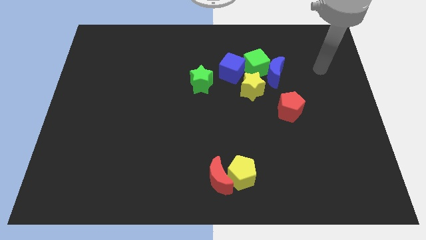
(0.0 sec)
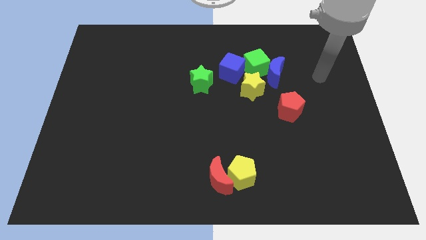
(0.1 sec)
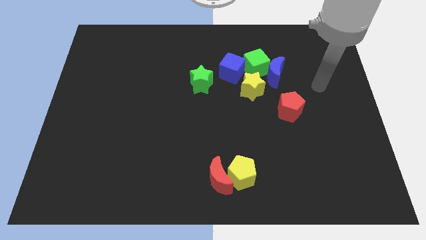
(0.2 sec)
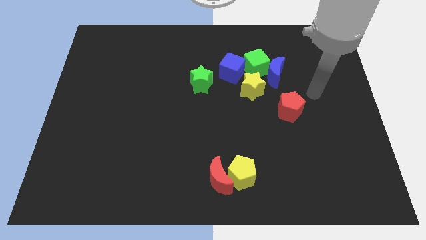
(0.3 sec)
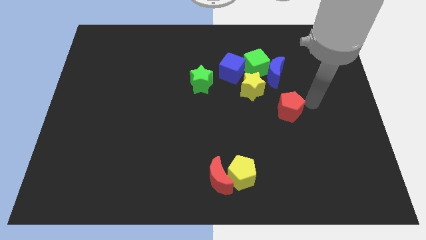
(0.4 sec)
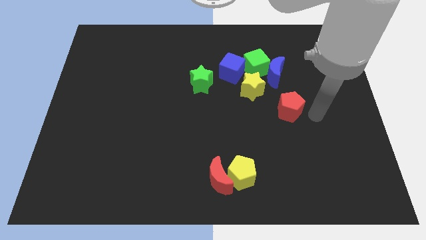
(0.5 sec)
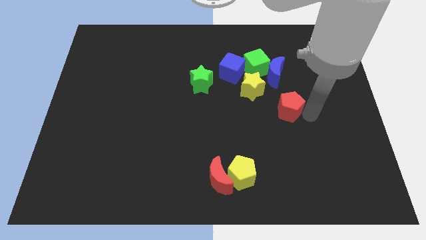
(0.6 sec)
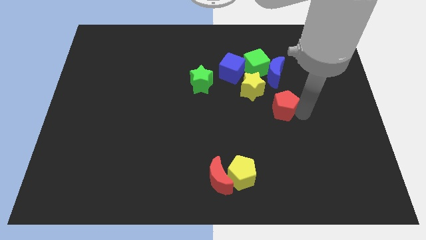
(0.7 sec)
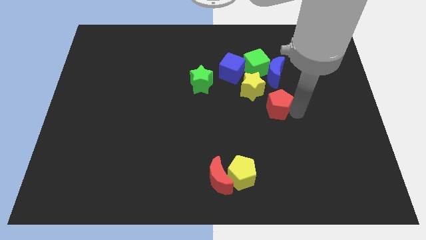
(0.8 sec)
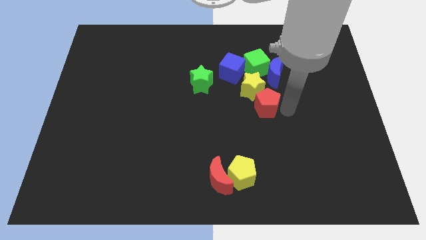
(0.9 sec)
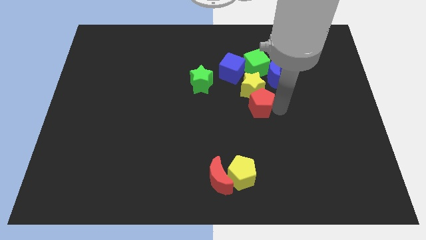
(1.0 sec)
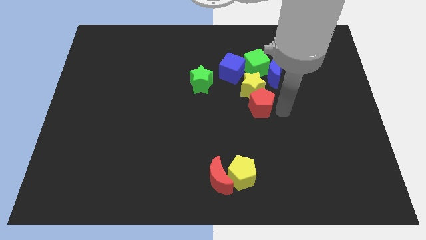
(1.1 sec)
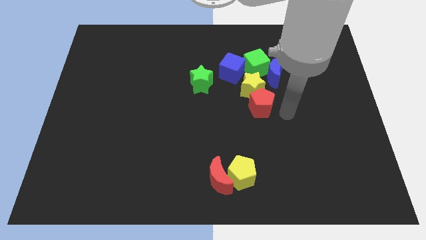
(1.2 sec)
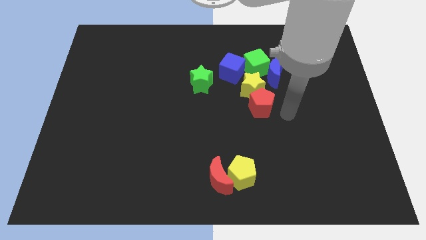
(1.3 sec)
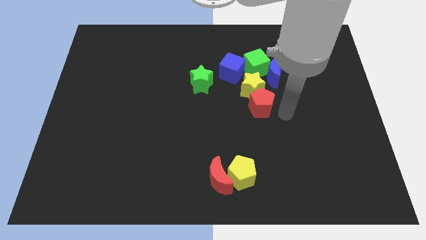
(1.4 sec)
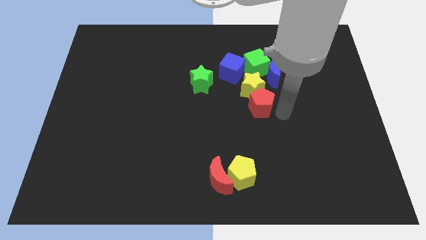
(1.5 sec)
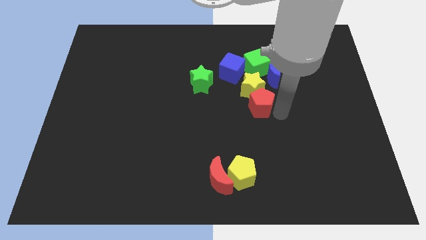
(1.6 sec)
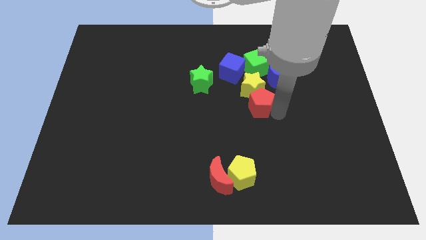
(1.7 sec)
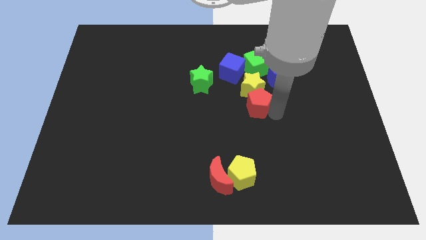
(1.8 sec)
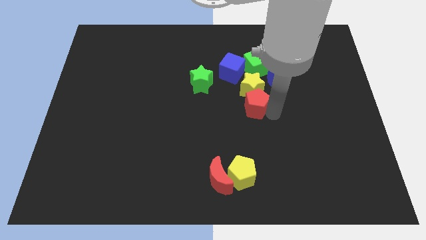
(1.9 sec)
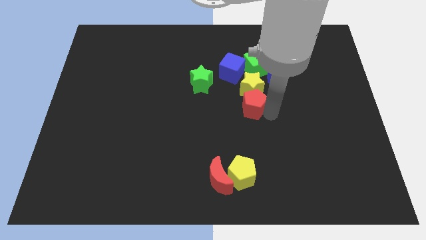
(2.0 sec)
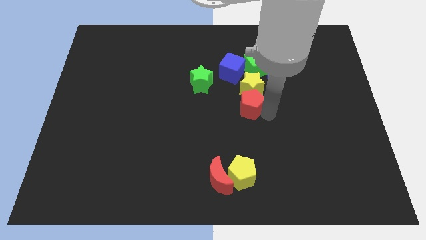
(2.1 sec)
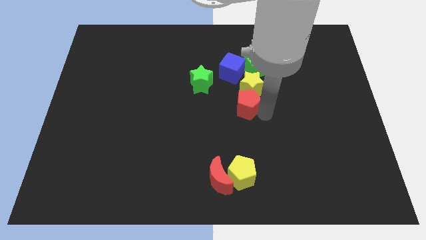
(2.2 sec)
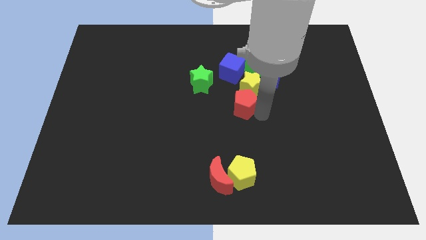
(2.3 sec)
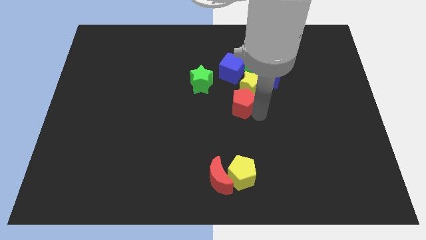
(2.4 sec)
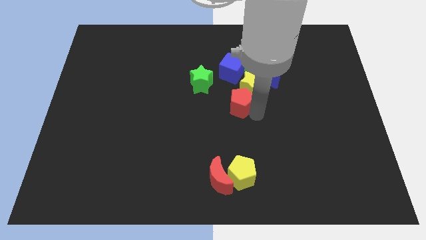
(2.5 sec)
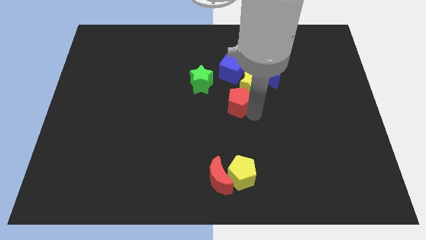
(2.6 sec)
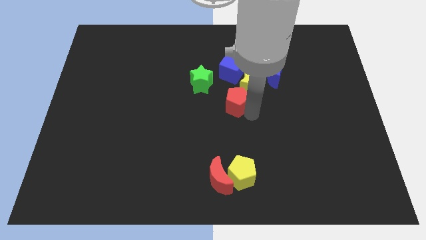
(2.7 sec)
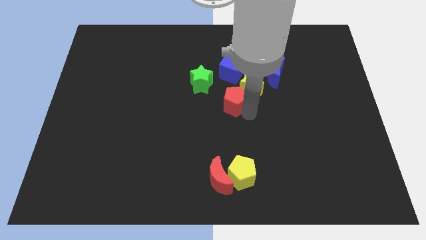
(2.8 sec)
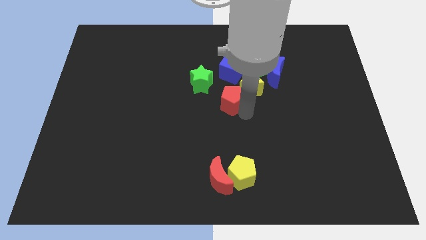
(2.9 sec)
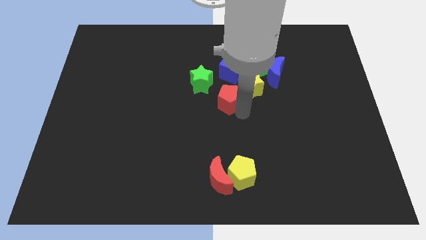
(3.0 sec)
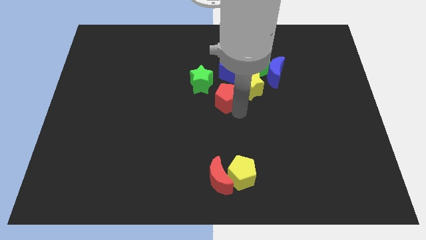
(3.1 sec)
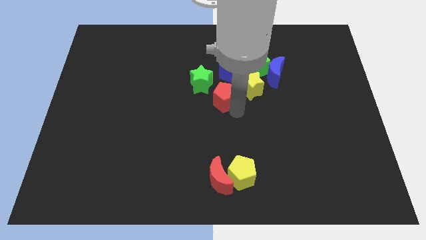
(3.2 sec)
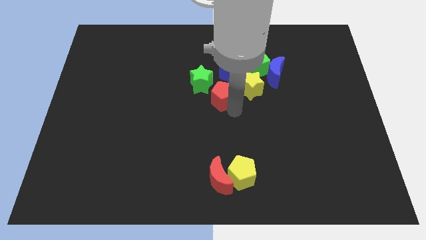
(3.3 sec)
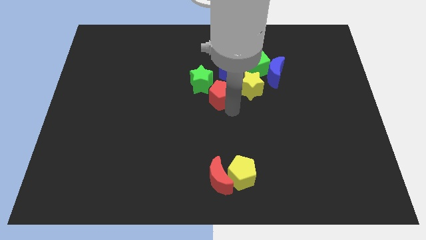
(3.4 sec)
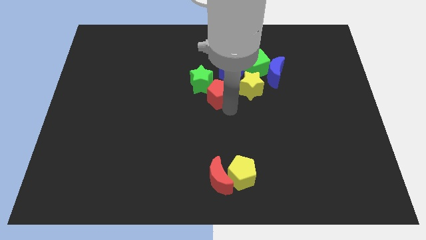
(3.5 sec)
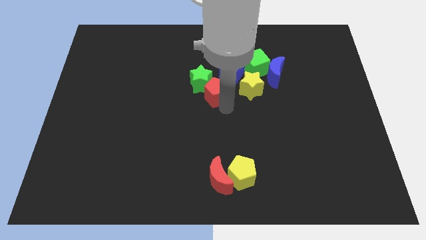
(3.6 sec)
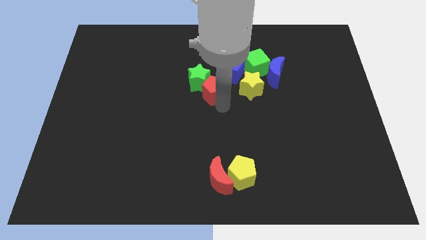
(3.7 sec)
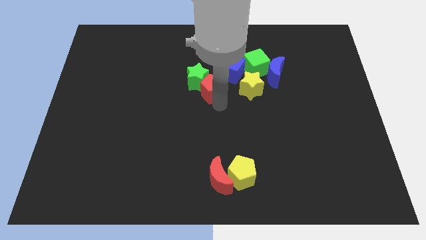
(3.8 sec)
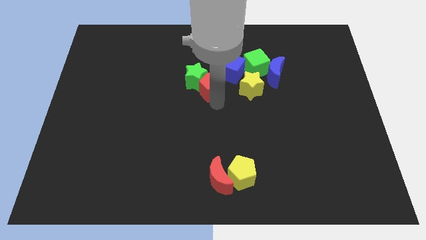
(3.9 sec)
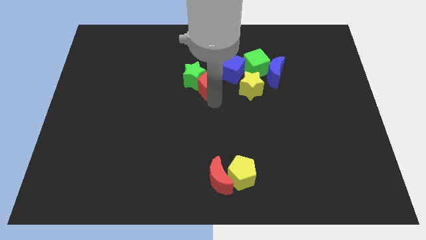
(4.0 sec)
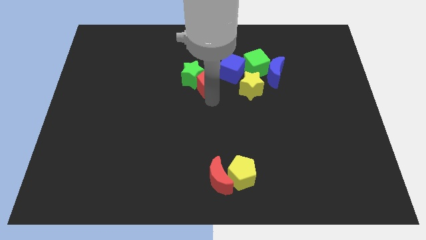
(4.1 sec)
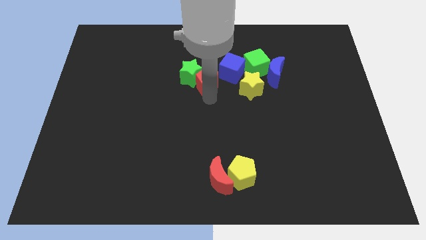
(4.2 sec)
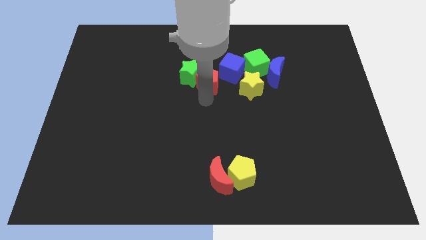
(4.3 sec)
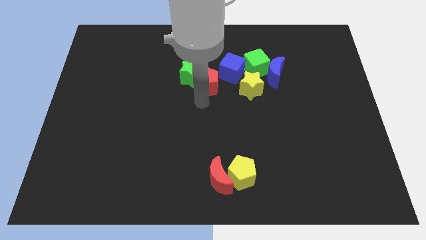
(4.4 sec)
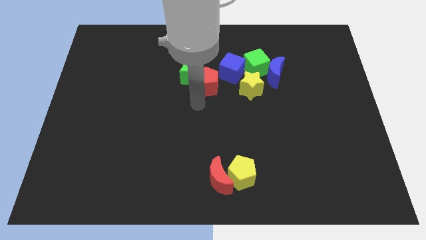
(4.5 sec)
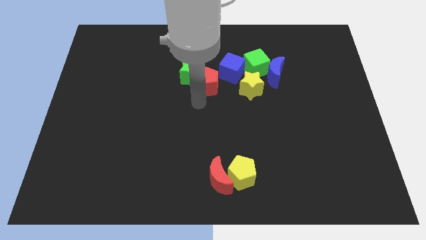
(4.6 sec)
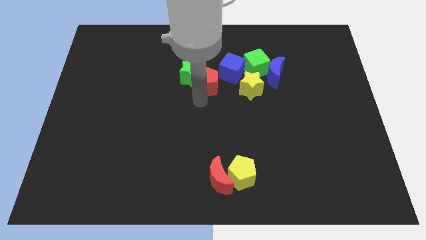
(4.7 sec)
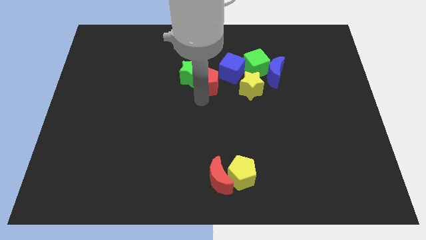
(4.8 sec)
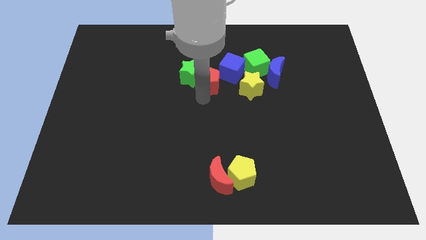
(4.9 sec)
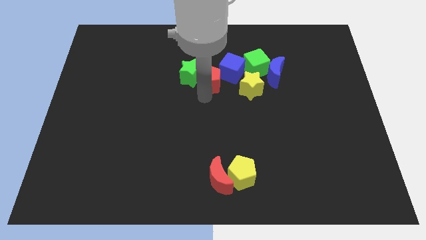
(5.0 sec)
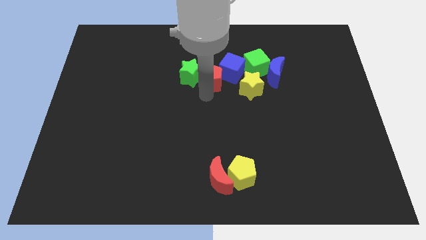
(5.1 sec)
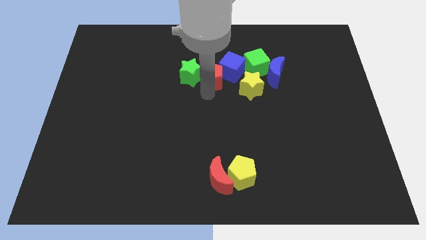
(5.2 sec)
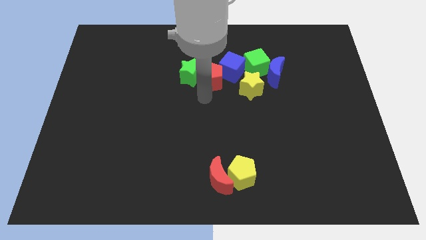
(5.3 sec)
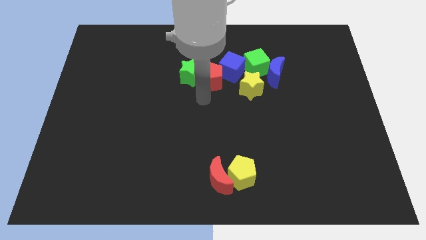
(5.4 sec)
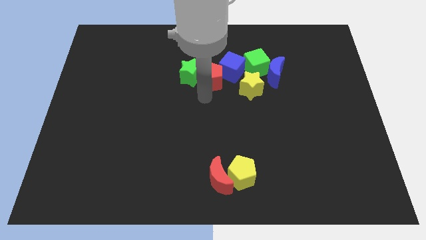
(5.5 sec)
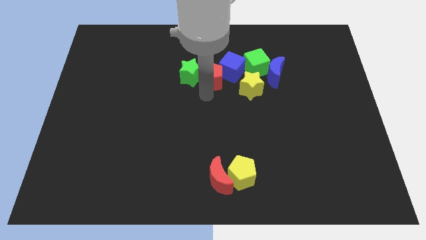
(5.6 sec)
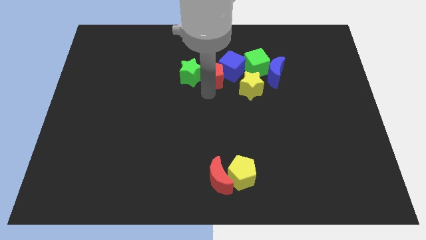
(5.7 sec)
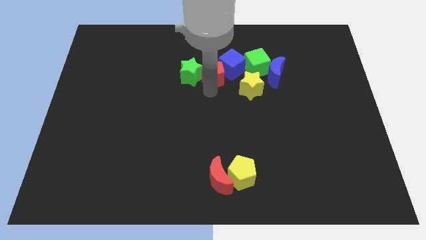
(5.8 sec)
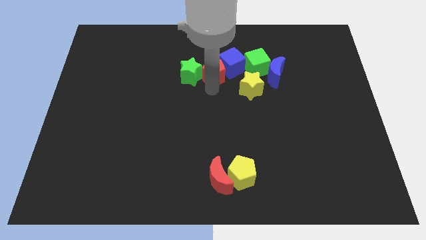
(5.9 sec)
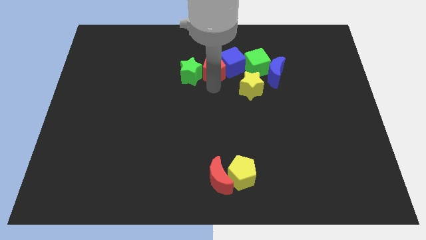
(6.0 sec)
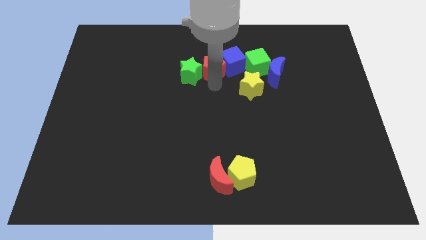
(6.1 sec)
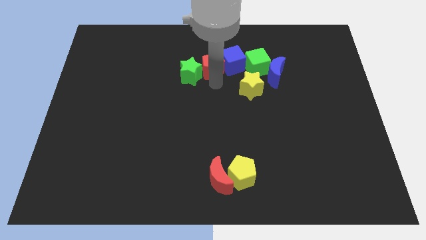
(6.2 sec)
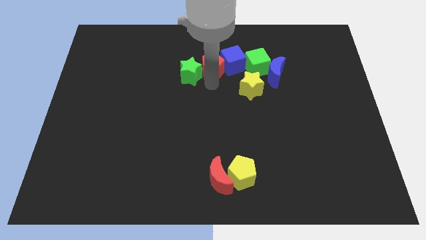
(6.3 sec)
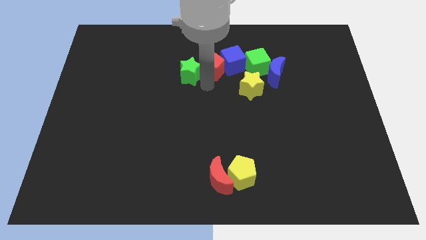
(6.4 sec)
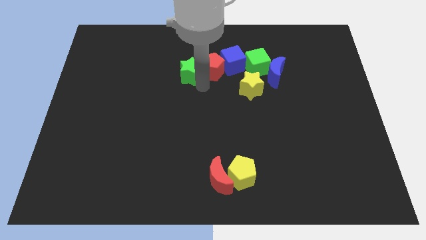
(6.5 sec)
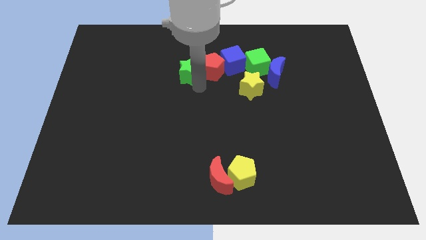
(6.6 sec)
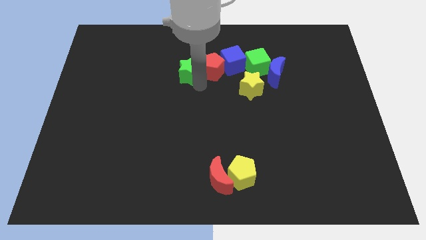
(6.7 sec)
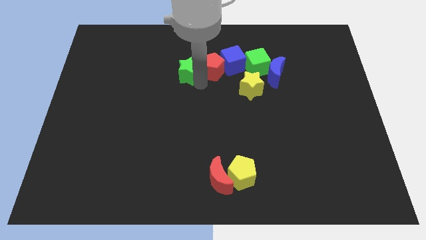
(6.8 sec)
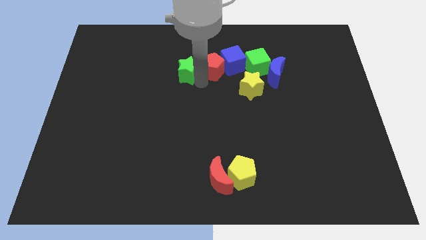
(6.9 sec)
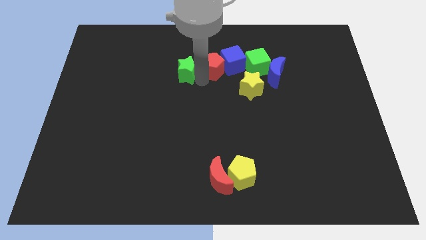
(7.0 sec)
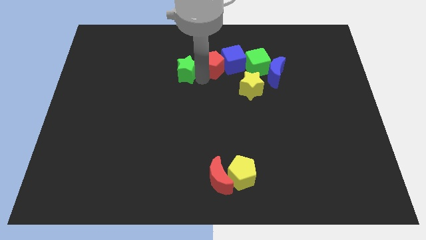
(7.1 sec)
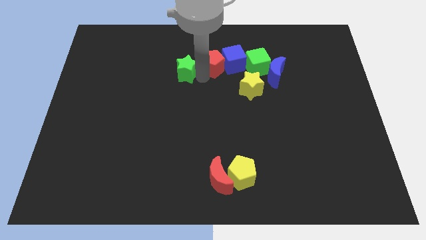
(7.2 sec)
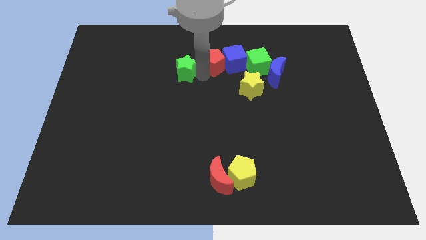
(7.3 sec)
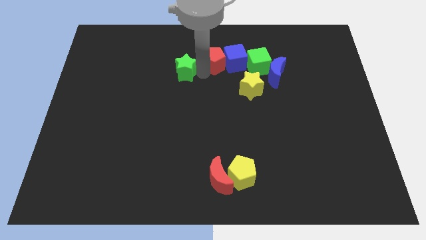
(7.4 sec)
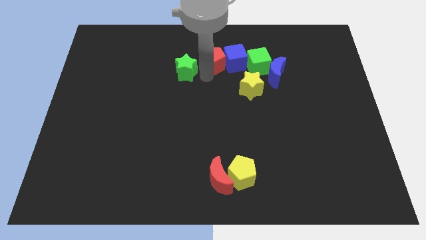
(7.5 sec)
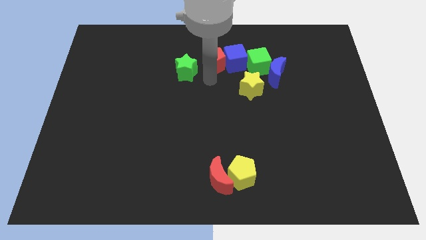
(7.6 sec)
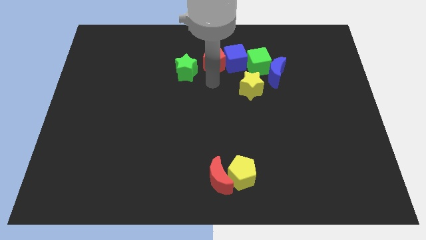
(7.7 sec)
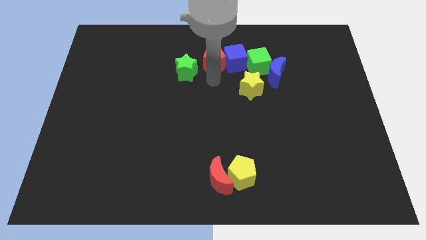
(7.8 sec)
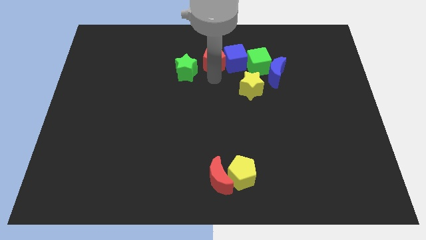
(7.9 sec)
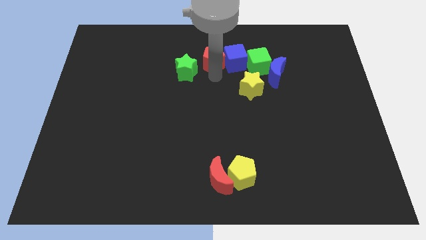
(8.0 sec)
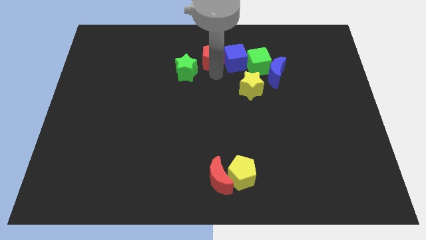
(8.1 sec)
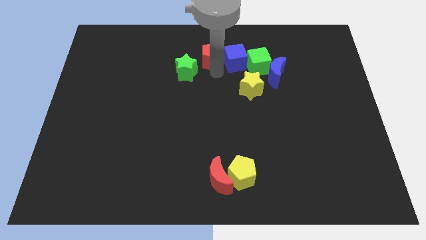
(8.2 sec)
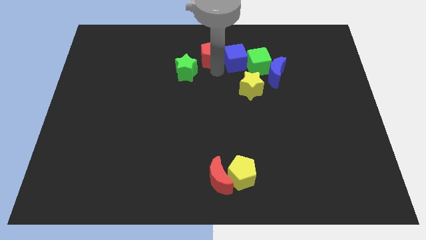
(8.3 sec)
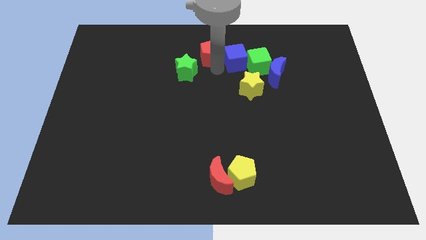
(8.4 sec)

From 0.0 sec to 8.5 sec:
push the red pentagon to the top side
